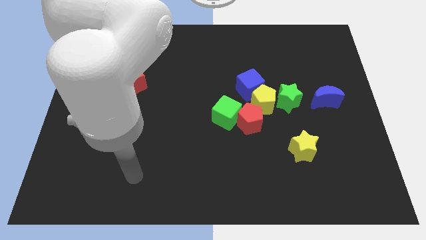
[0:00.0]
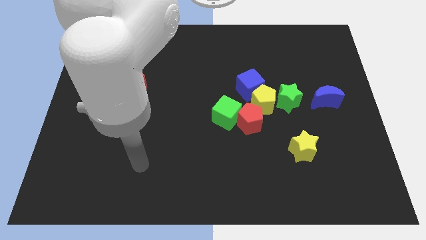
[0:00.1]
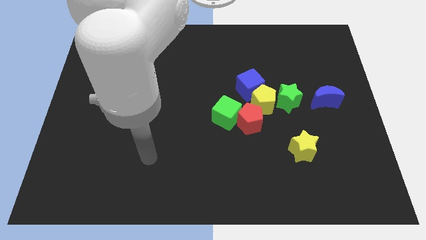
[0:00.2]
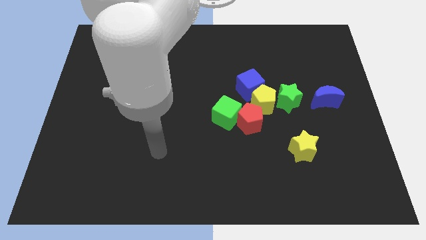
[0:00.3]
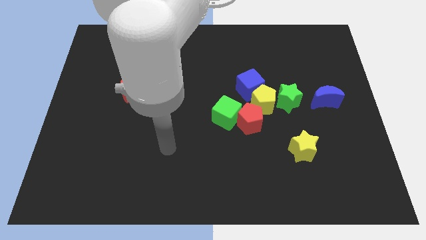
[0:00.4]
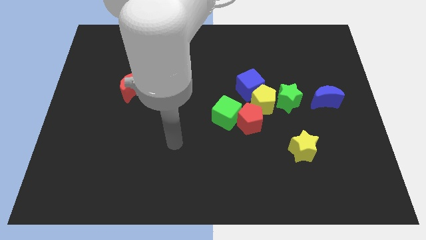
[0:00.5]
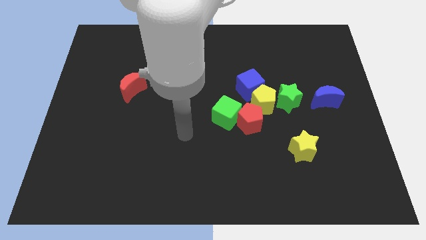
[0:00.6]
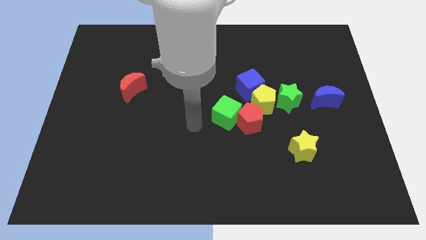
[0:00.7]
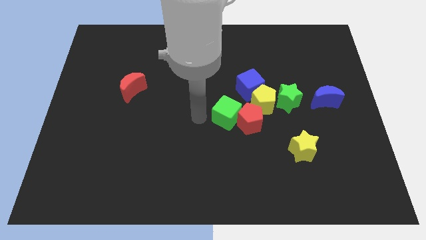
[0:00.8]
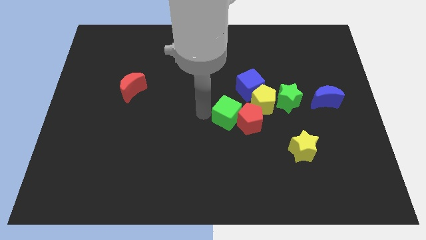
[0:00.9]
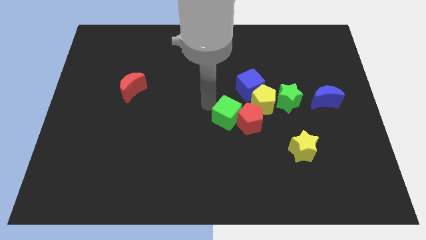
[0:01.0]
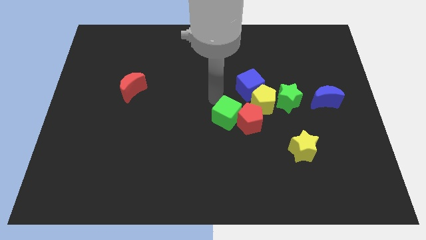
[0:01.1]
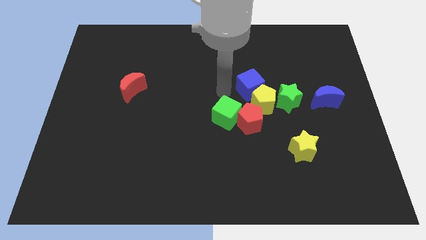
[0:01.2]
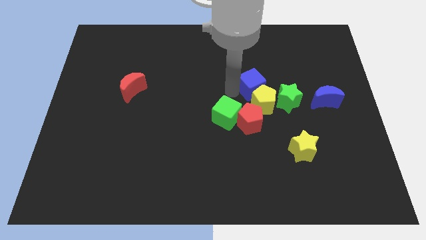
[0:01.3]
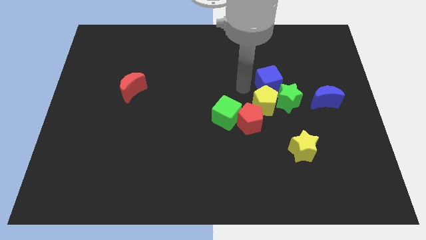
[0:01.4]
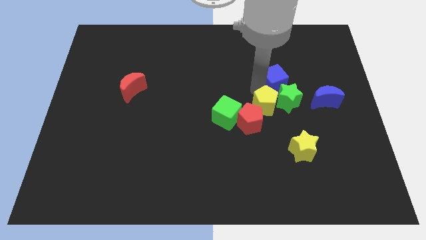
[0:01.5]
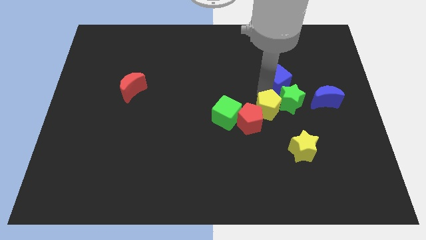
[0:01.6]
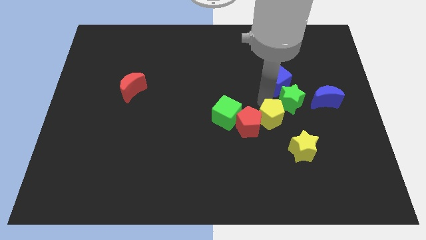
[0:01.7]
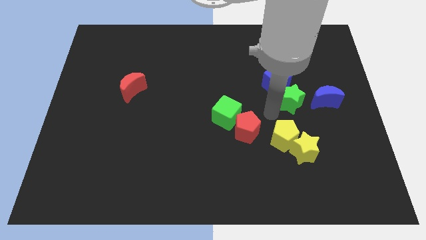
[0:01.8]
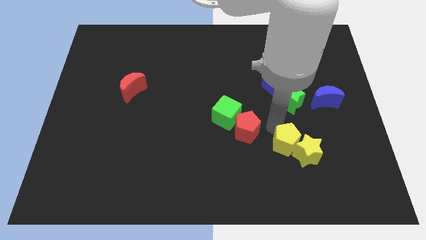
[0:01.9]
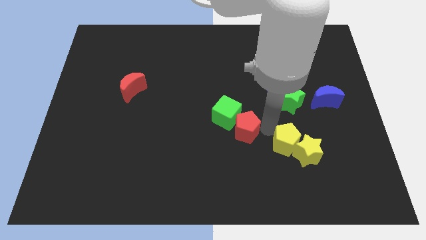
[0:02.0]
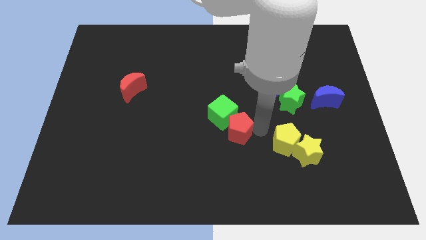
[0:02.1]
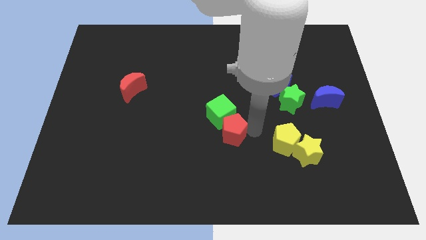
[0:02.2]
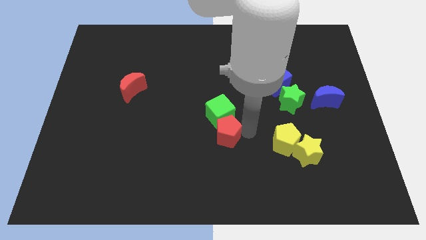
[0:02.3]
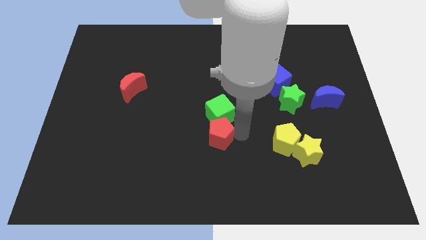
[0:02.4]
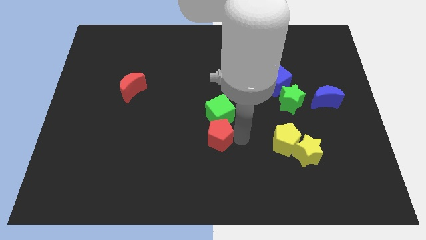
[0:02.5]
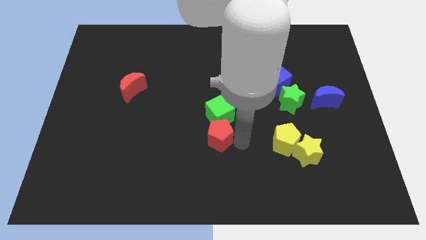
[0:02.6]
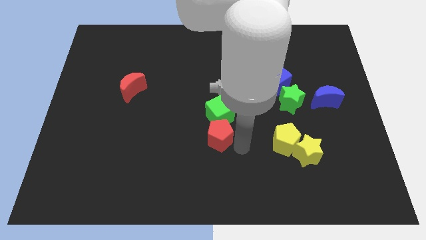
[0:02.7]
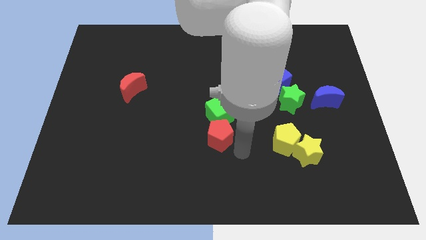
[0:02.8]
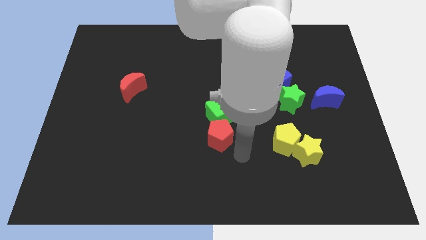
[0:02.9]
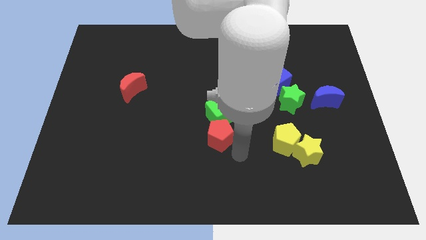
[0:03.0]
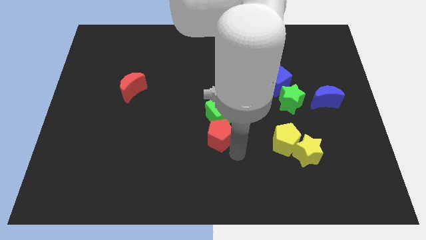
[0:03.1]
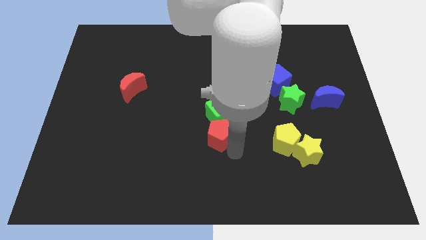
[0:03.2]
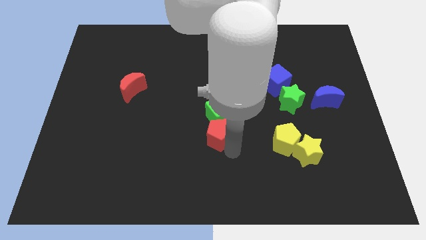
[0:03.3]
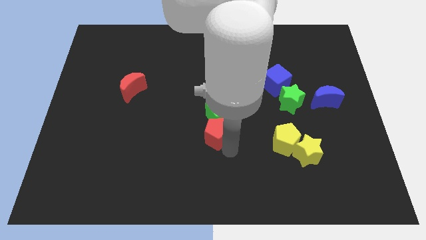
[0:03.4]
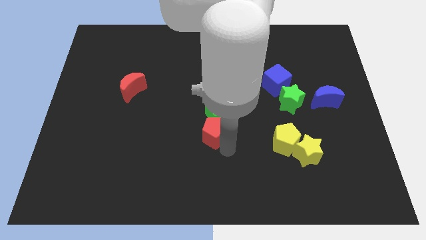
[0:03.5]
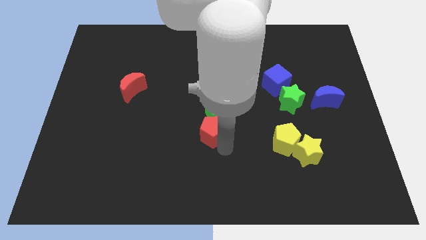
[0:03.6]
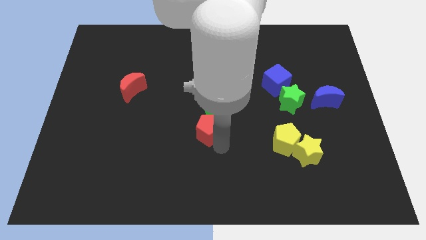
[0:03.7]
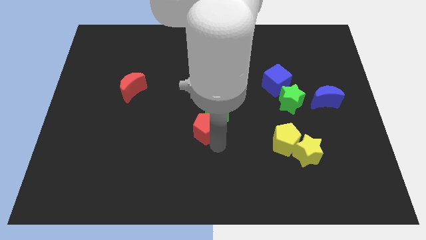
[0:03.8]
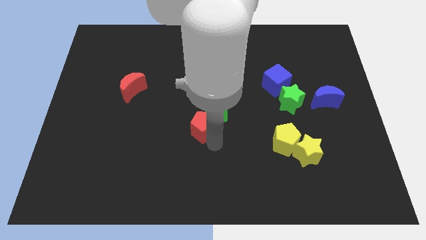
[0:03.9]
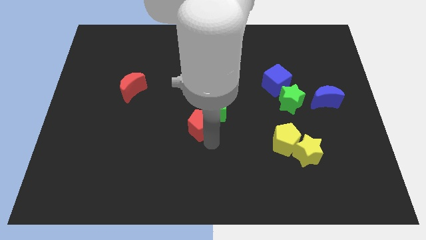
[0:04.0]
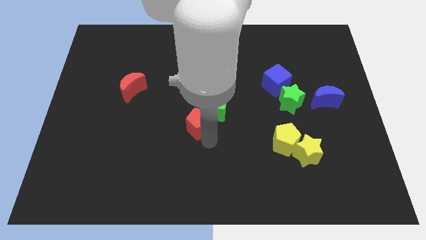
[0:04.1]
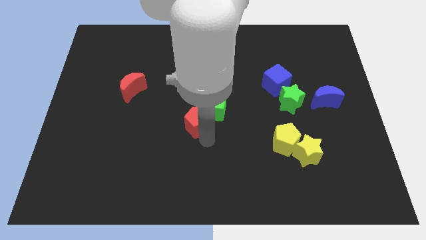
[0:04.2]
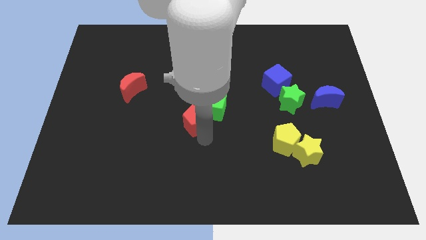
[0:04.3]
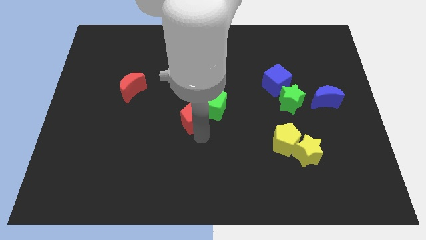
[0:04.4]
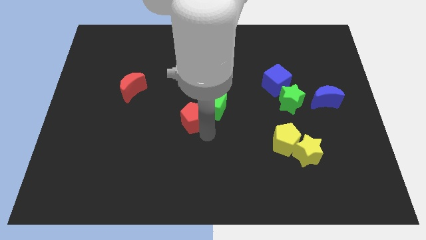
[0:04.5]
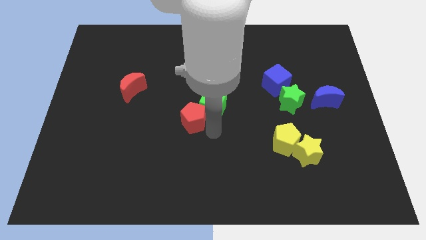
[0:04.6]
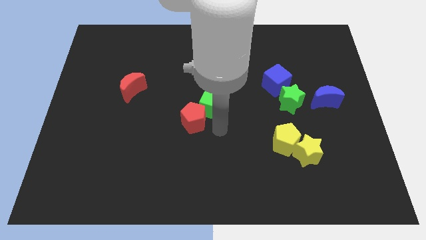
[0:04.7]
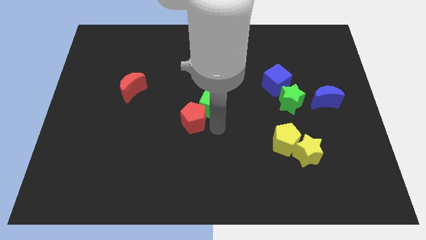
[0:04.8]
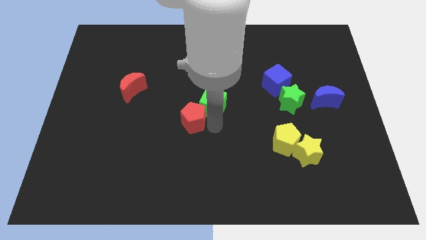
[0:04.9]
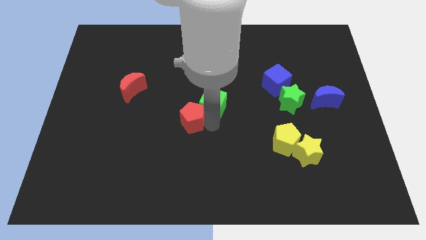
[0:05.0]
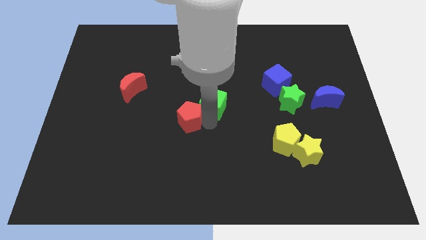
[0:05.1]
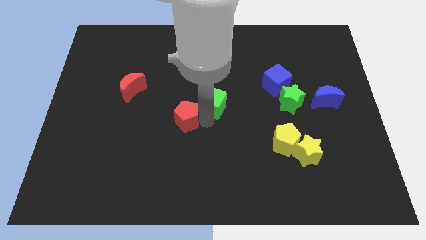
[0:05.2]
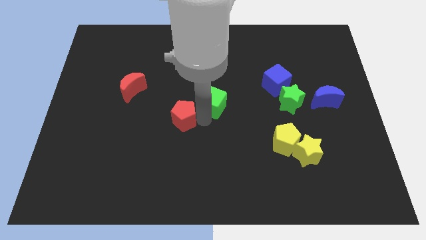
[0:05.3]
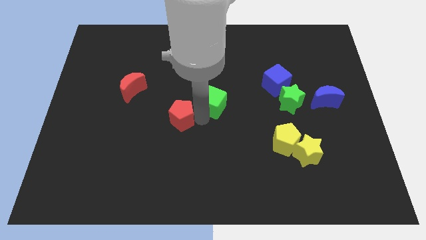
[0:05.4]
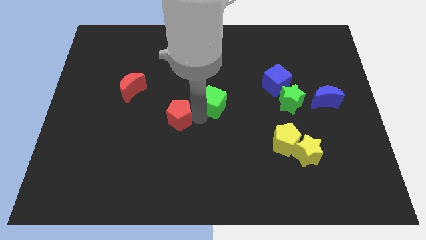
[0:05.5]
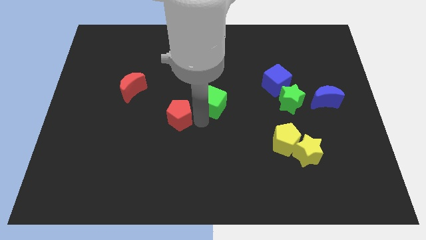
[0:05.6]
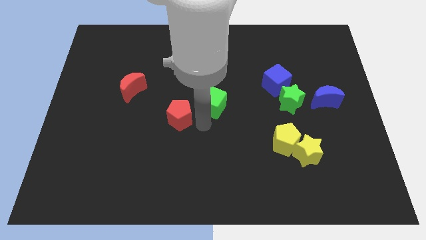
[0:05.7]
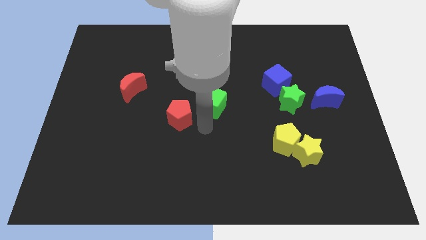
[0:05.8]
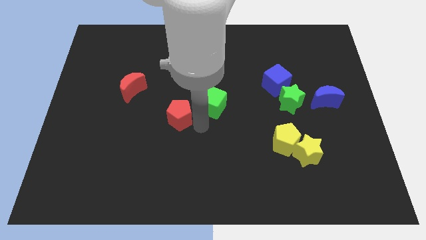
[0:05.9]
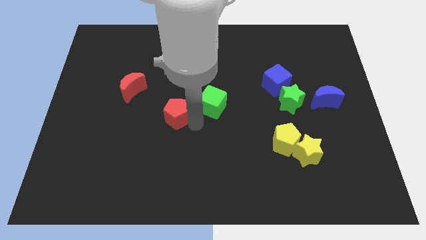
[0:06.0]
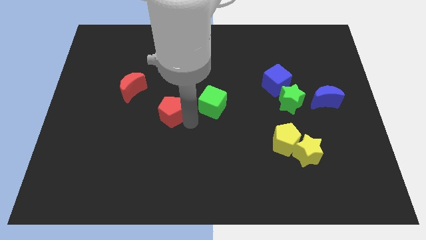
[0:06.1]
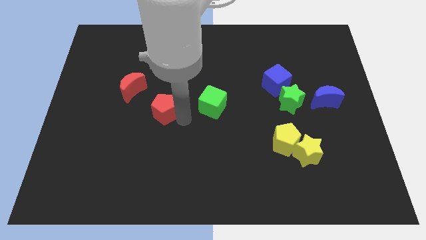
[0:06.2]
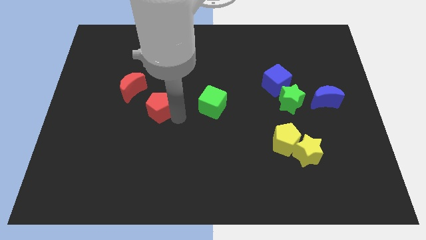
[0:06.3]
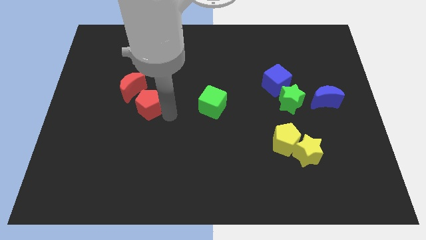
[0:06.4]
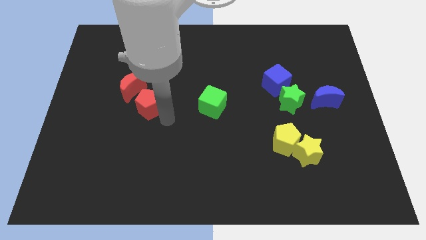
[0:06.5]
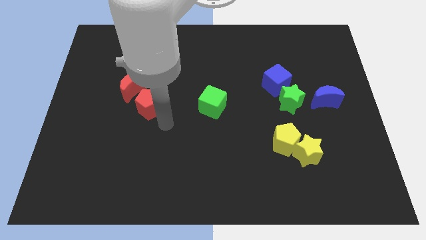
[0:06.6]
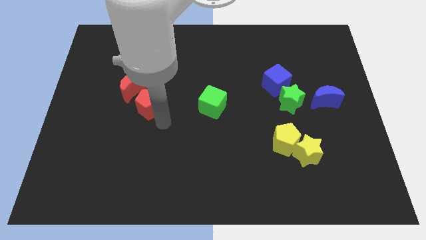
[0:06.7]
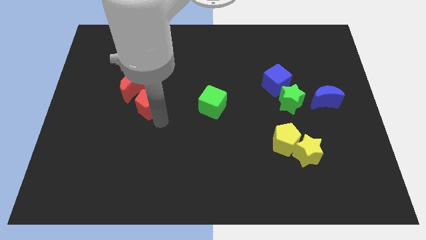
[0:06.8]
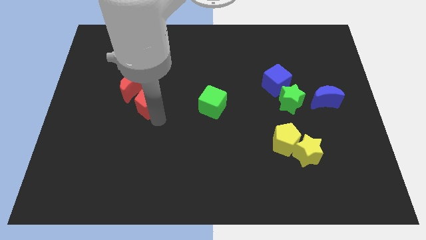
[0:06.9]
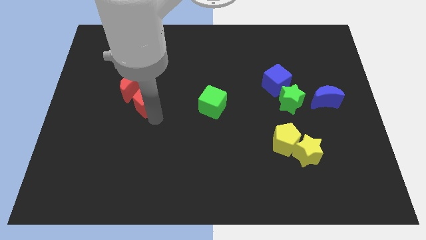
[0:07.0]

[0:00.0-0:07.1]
move the red pentagon next to the red moon

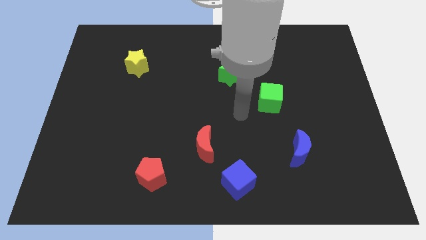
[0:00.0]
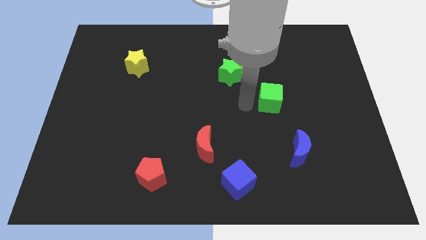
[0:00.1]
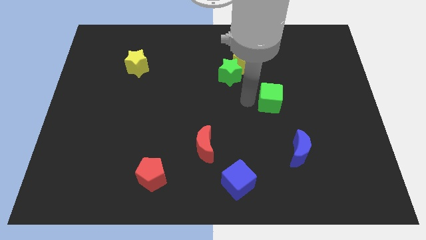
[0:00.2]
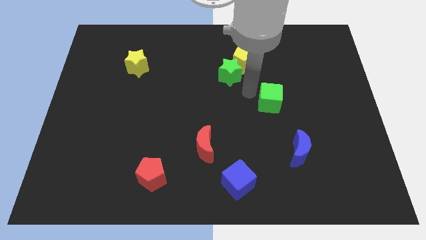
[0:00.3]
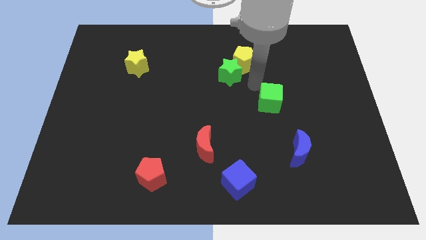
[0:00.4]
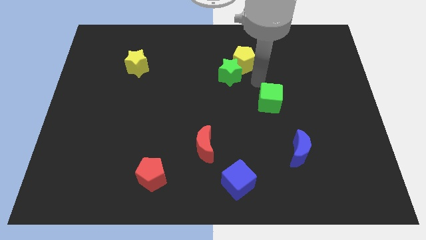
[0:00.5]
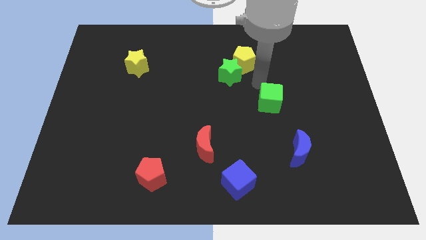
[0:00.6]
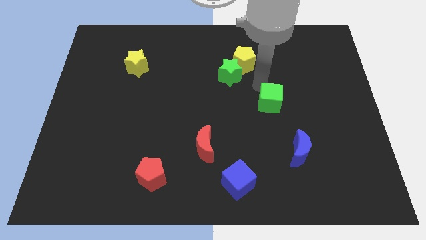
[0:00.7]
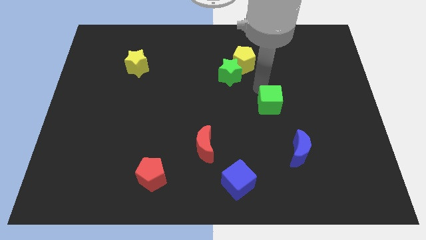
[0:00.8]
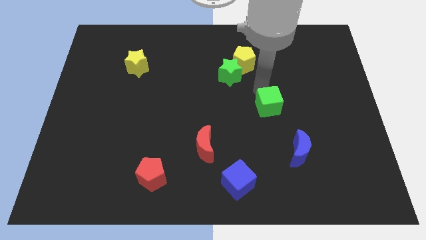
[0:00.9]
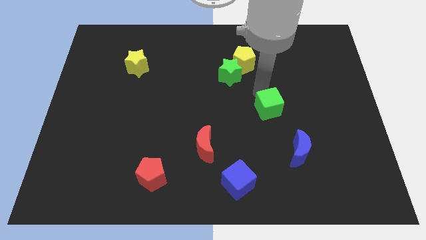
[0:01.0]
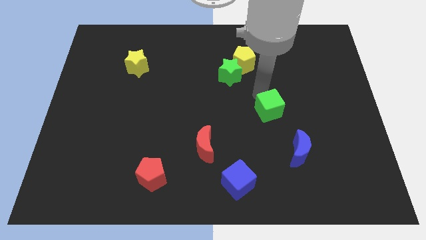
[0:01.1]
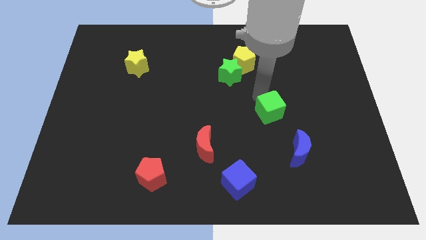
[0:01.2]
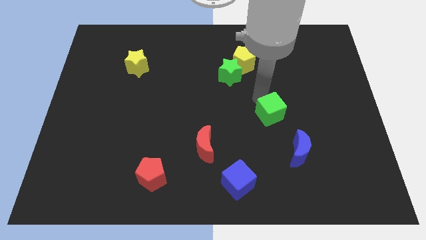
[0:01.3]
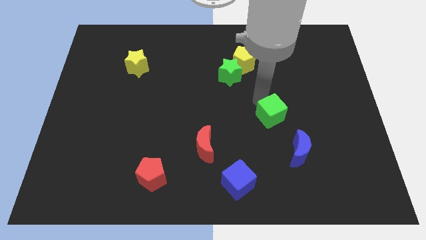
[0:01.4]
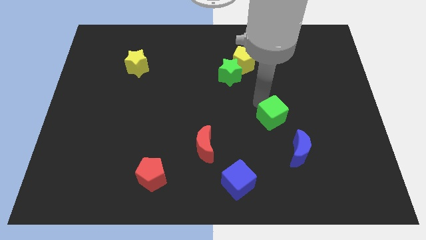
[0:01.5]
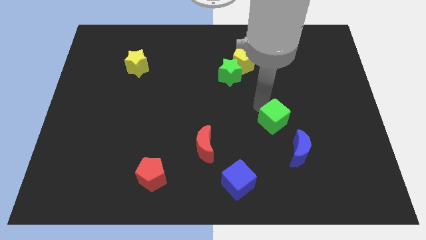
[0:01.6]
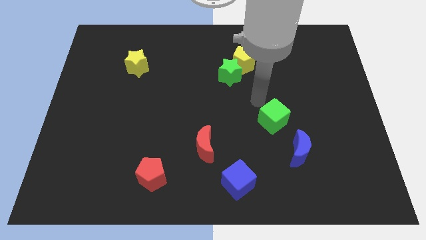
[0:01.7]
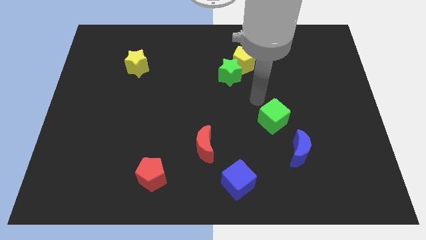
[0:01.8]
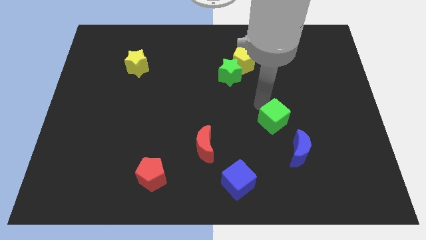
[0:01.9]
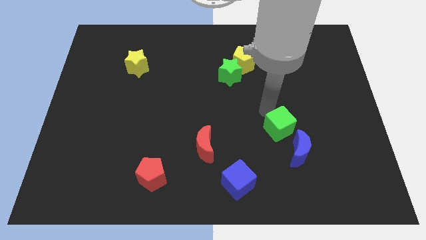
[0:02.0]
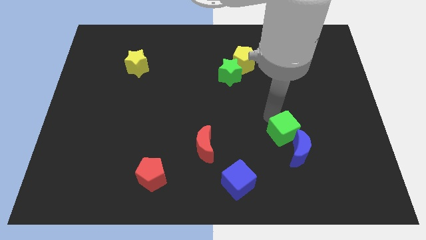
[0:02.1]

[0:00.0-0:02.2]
slide the green cube towards the blue moon
